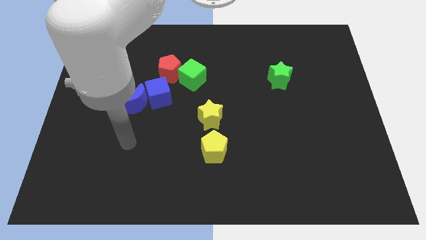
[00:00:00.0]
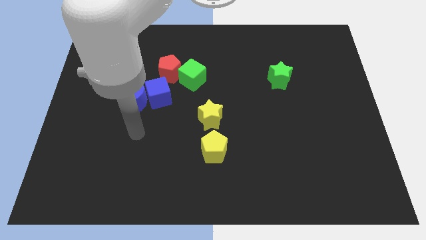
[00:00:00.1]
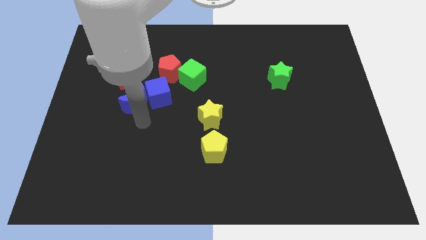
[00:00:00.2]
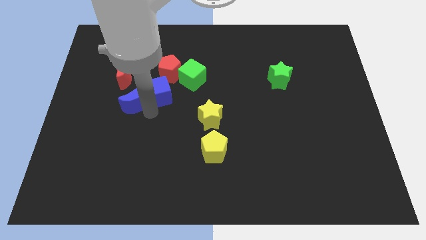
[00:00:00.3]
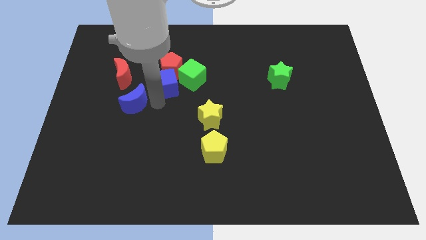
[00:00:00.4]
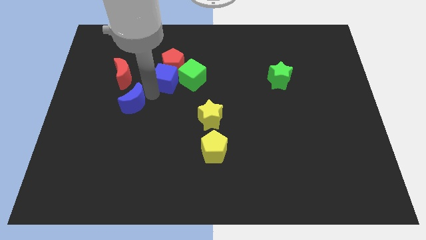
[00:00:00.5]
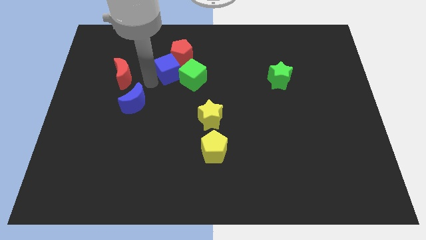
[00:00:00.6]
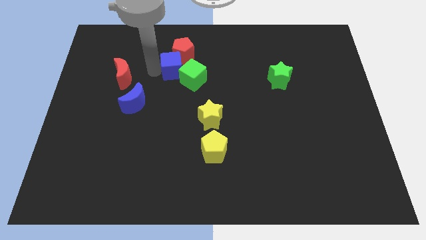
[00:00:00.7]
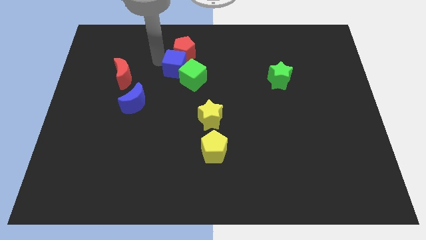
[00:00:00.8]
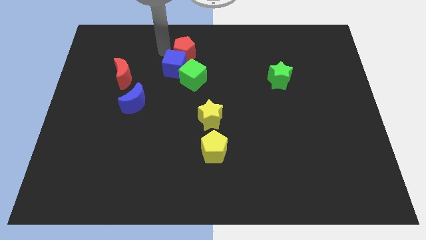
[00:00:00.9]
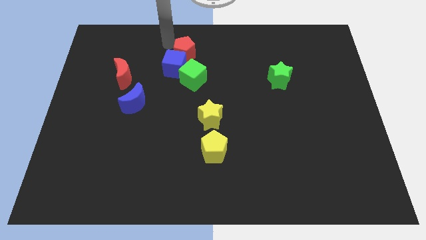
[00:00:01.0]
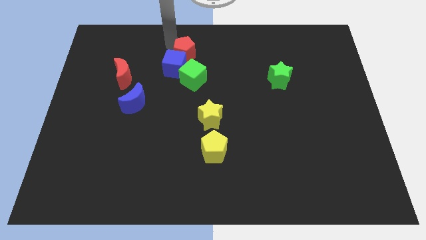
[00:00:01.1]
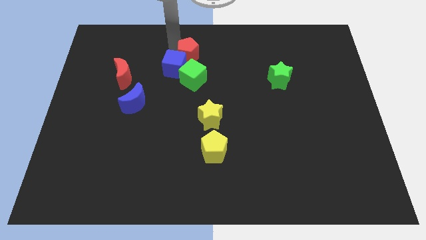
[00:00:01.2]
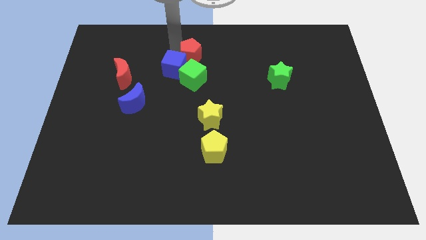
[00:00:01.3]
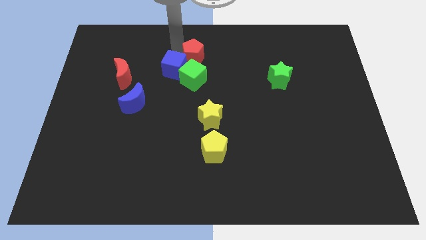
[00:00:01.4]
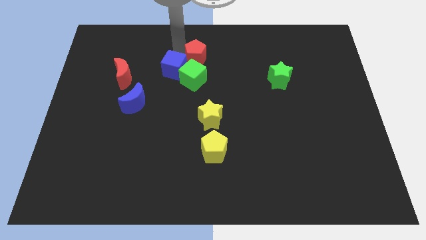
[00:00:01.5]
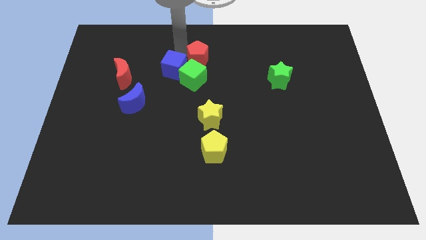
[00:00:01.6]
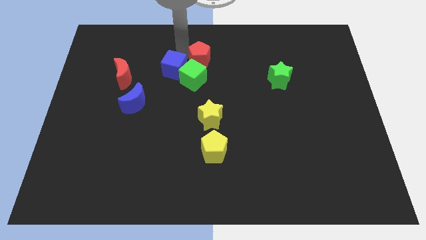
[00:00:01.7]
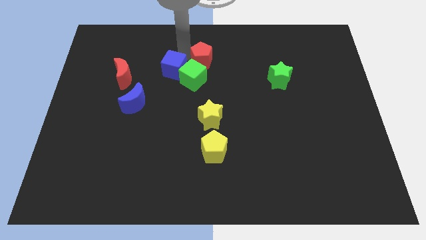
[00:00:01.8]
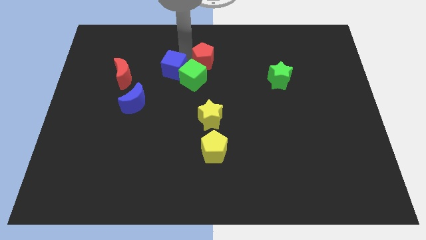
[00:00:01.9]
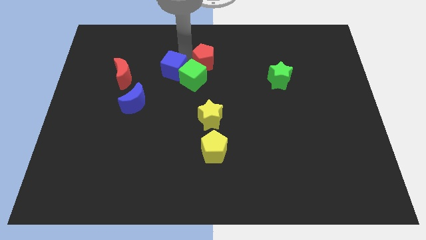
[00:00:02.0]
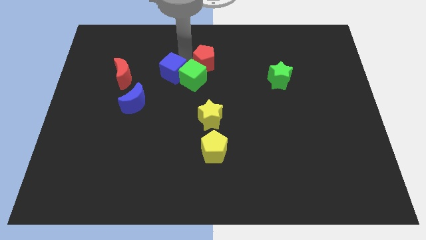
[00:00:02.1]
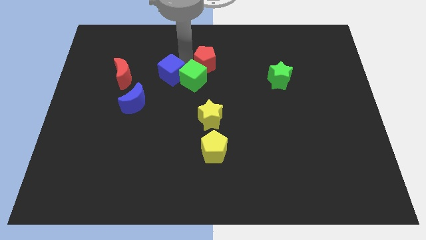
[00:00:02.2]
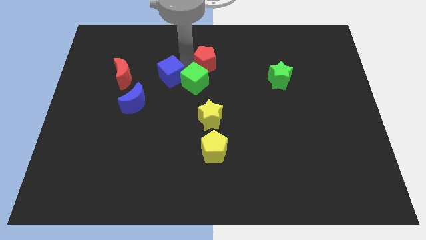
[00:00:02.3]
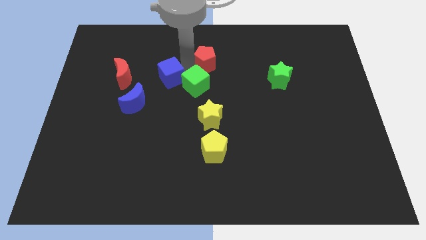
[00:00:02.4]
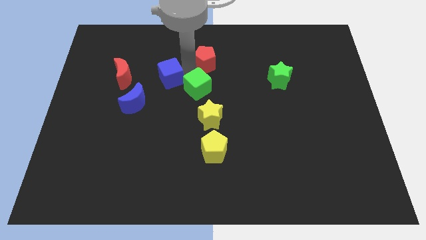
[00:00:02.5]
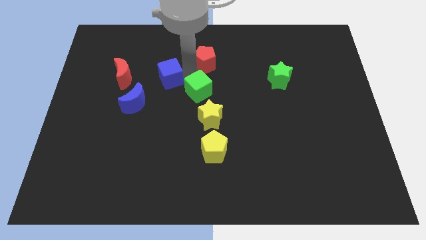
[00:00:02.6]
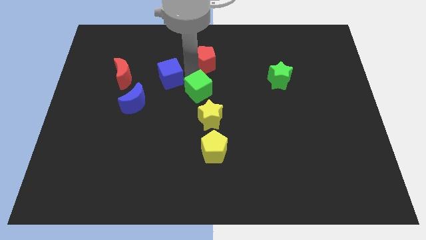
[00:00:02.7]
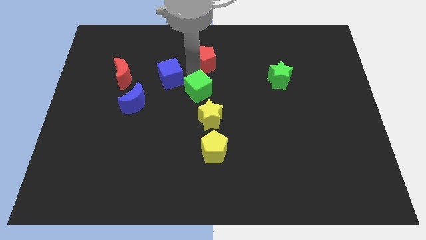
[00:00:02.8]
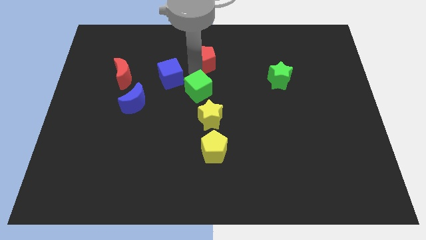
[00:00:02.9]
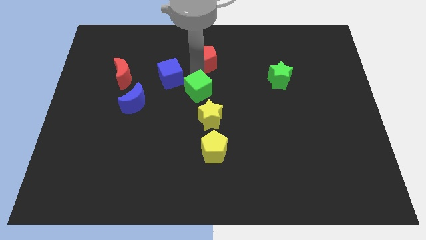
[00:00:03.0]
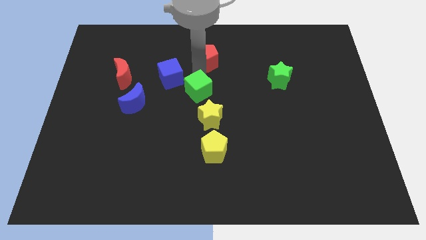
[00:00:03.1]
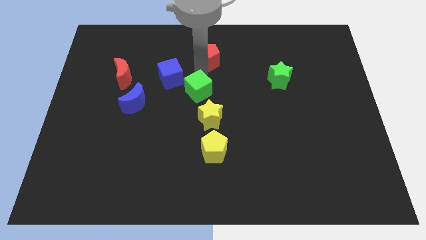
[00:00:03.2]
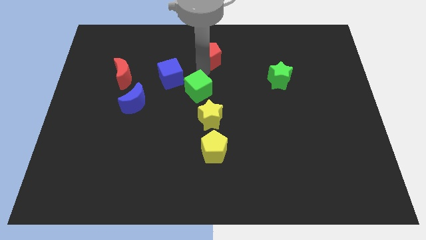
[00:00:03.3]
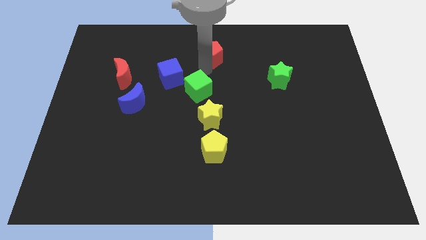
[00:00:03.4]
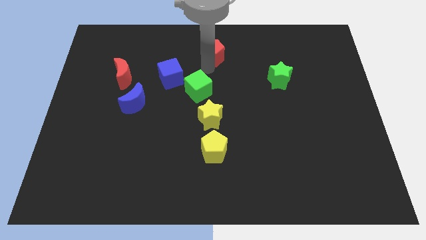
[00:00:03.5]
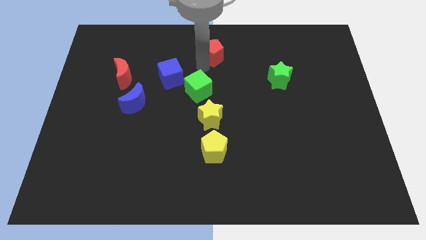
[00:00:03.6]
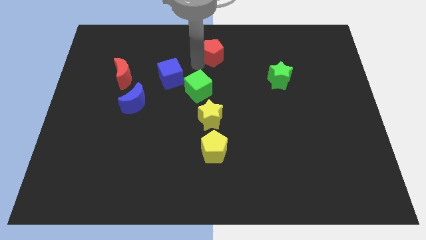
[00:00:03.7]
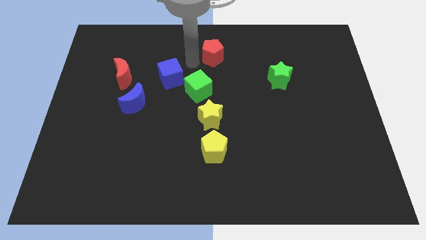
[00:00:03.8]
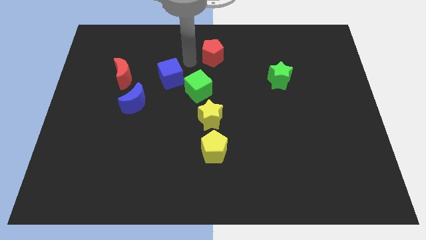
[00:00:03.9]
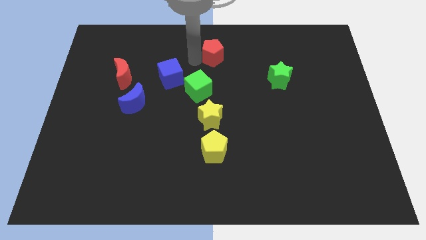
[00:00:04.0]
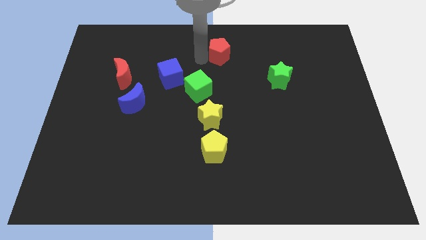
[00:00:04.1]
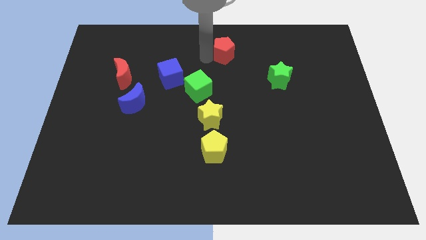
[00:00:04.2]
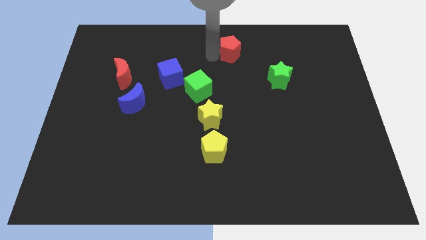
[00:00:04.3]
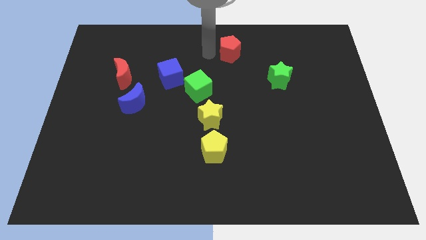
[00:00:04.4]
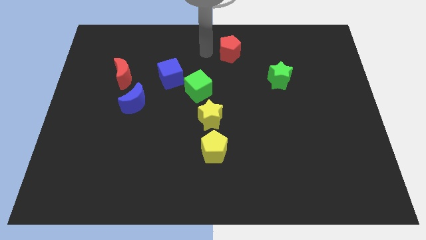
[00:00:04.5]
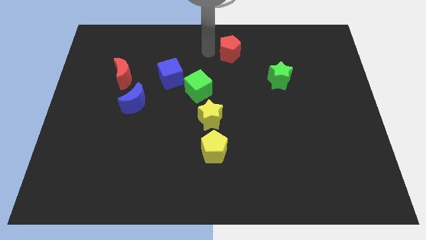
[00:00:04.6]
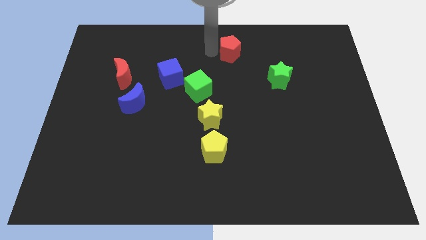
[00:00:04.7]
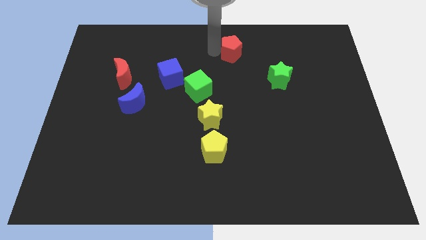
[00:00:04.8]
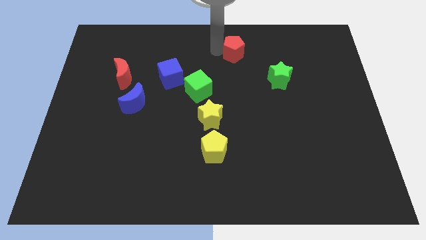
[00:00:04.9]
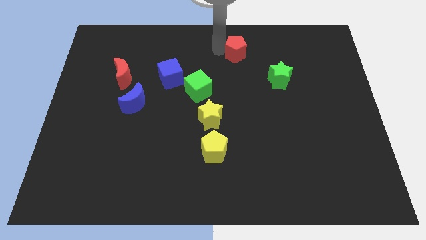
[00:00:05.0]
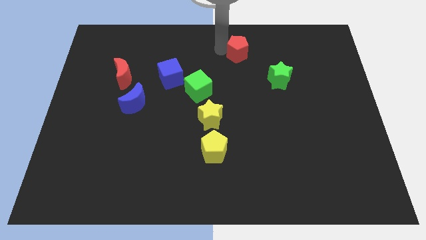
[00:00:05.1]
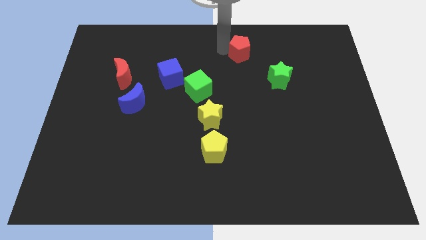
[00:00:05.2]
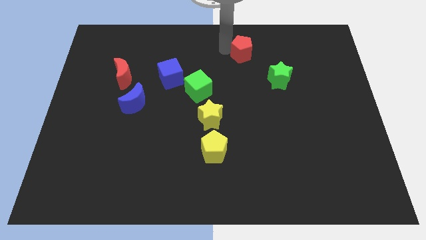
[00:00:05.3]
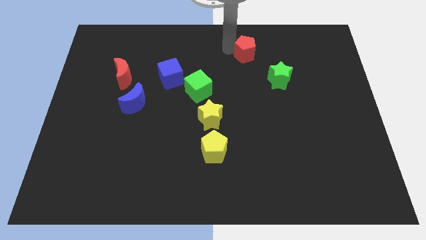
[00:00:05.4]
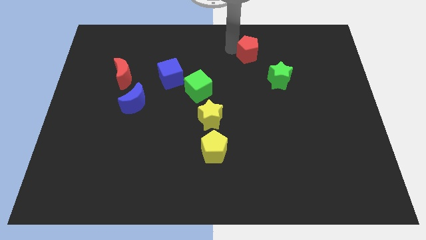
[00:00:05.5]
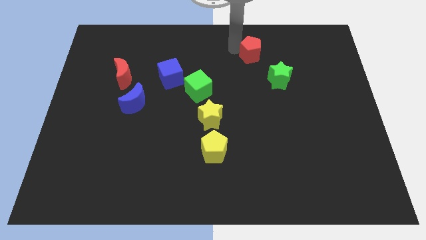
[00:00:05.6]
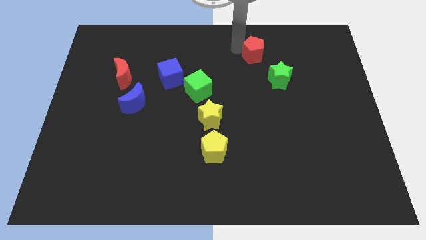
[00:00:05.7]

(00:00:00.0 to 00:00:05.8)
move the red pentagon right

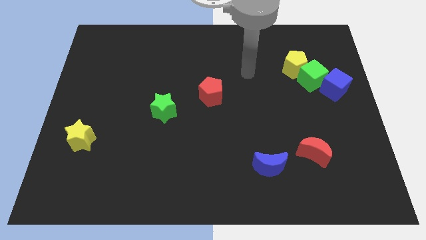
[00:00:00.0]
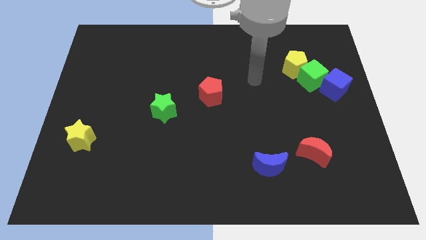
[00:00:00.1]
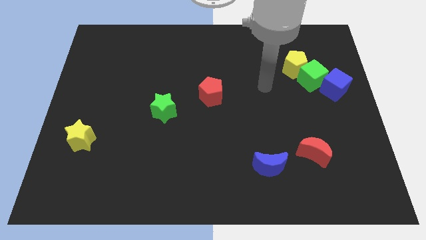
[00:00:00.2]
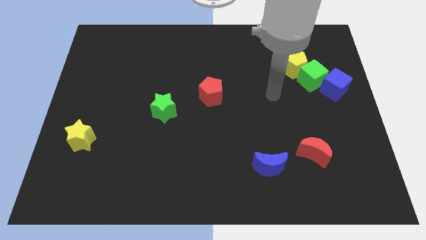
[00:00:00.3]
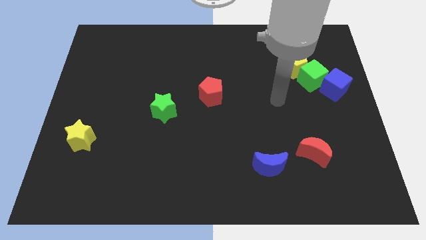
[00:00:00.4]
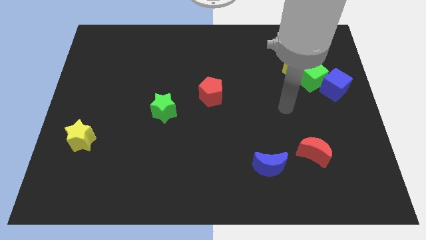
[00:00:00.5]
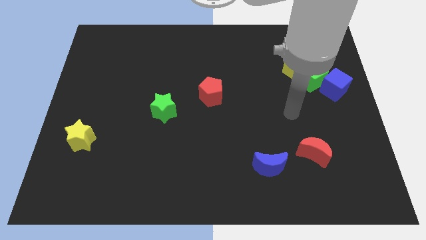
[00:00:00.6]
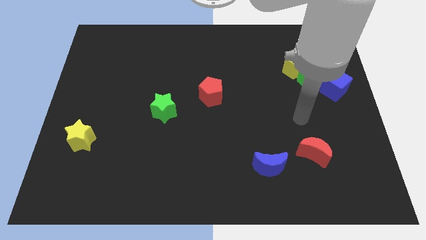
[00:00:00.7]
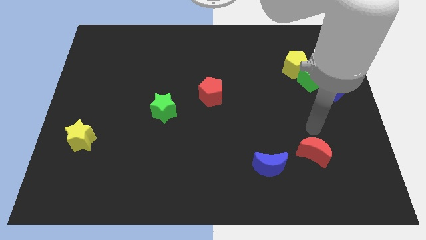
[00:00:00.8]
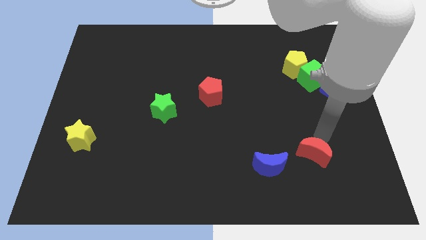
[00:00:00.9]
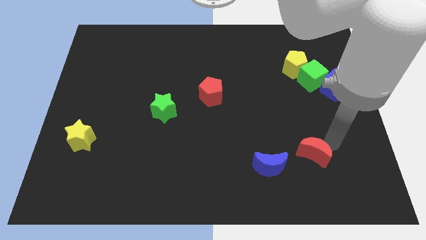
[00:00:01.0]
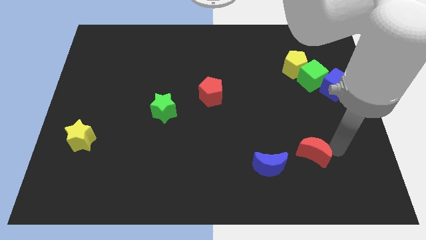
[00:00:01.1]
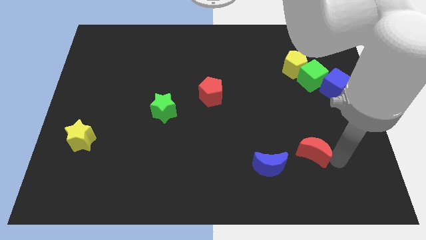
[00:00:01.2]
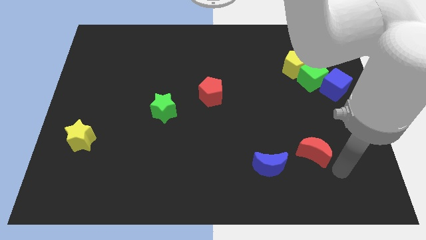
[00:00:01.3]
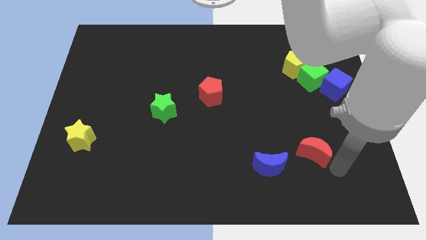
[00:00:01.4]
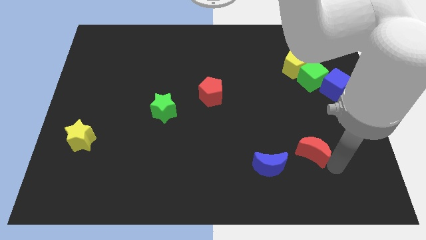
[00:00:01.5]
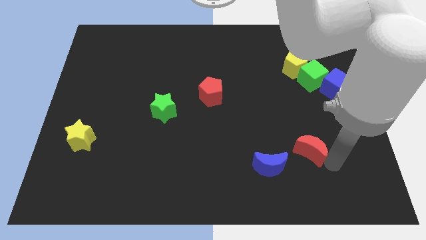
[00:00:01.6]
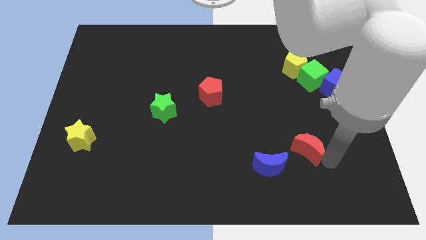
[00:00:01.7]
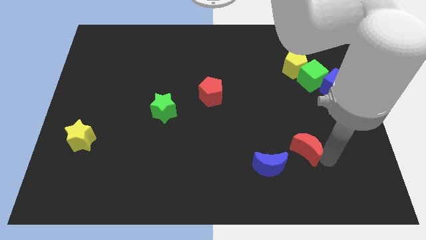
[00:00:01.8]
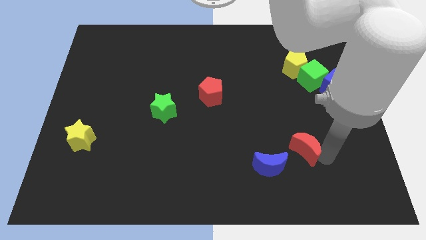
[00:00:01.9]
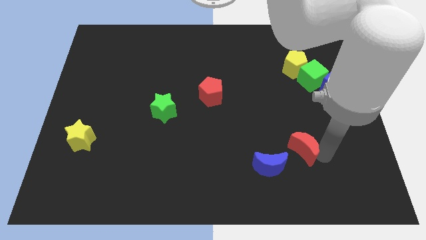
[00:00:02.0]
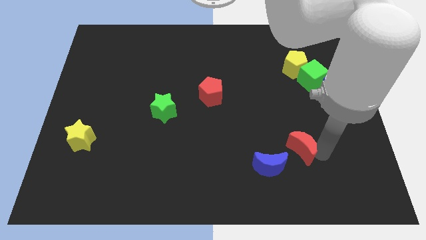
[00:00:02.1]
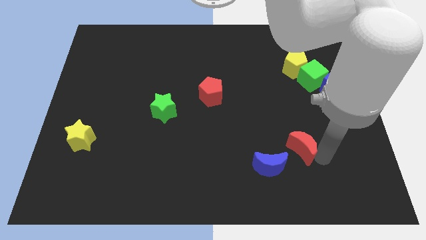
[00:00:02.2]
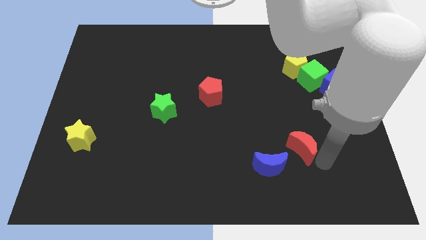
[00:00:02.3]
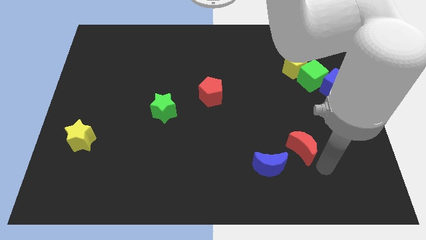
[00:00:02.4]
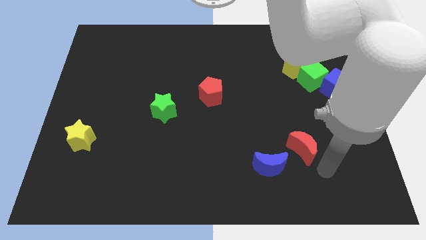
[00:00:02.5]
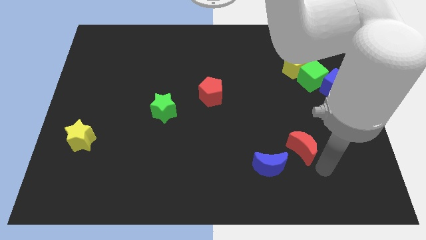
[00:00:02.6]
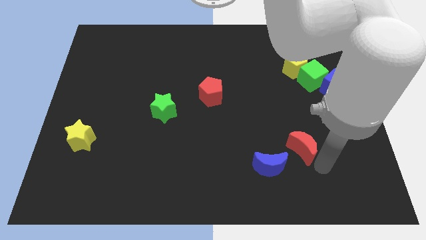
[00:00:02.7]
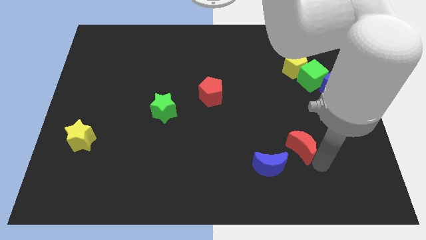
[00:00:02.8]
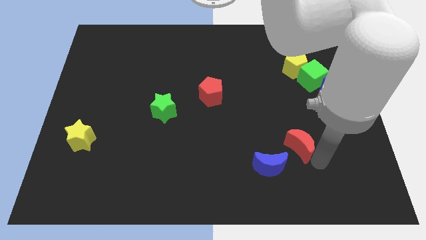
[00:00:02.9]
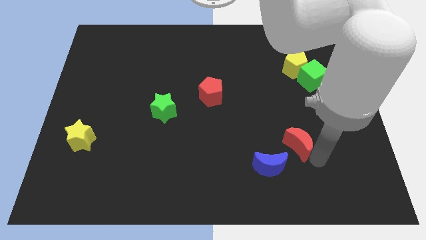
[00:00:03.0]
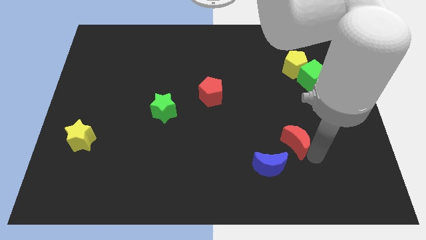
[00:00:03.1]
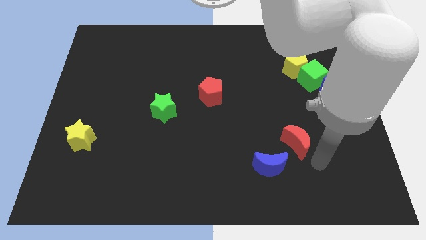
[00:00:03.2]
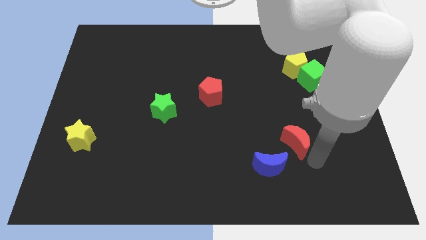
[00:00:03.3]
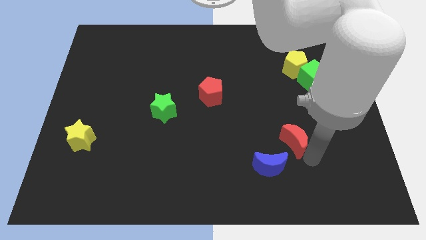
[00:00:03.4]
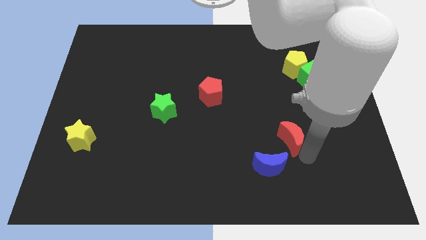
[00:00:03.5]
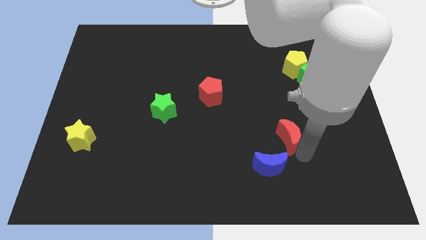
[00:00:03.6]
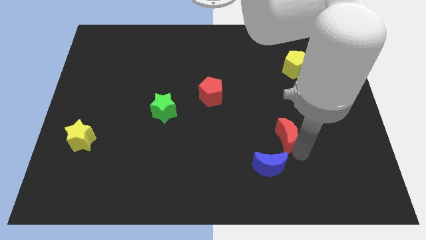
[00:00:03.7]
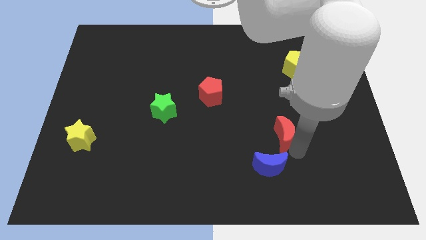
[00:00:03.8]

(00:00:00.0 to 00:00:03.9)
push the red moon a little up and to the left
